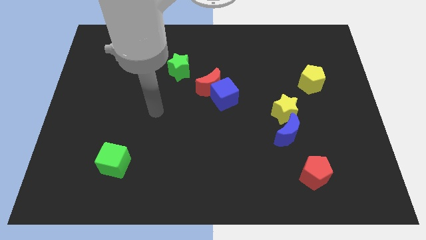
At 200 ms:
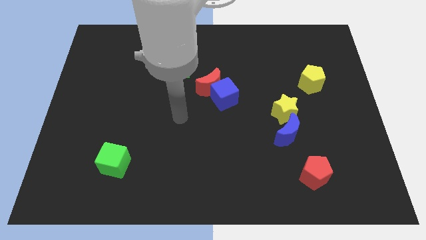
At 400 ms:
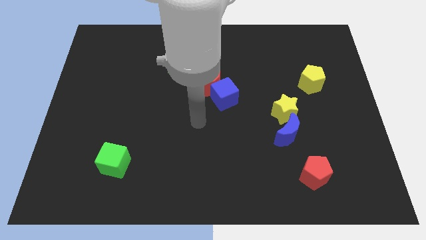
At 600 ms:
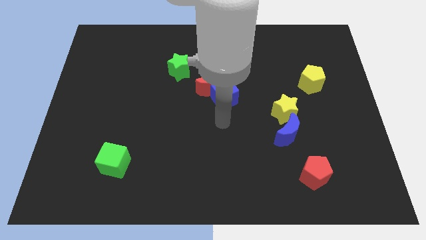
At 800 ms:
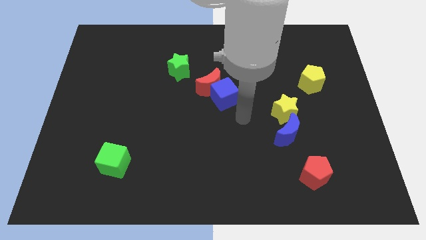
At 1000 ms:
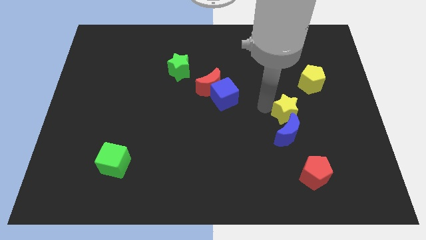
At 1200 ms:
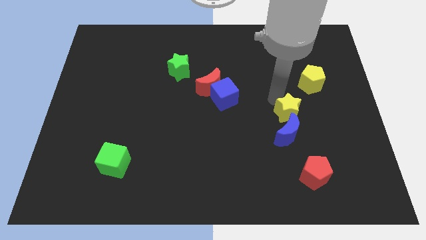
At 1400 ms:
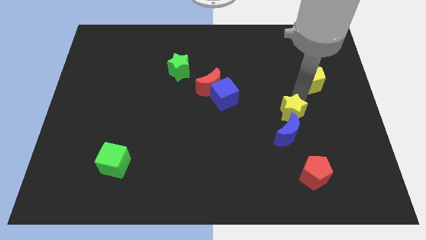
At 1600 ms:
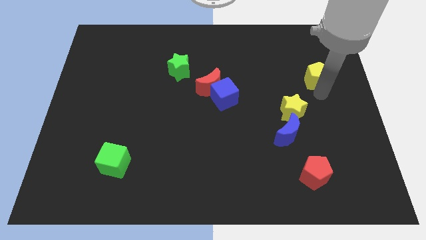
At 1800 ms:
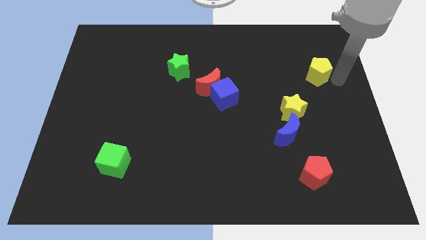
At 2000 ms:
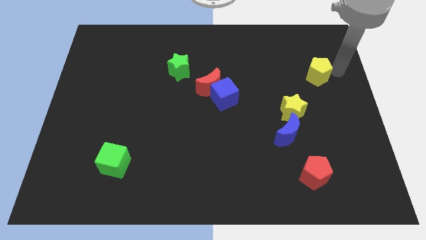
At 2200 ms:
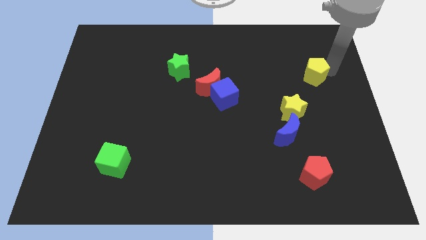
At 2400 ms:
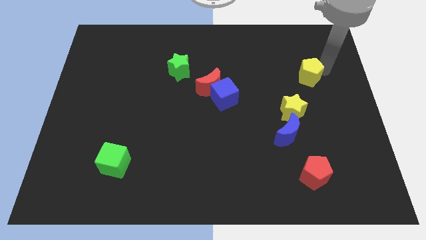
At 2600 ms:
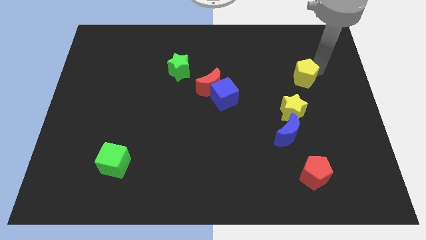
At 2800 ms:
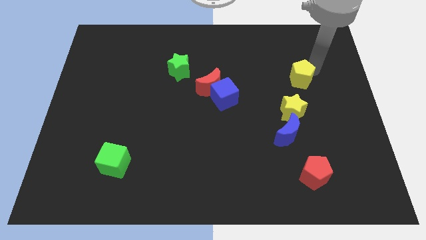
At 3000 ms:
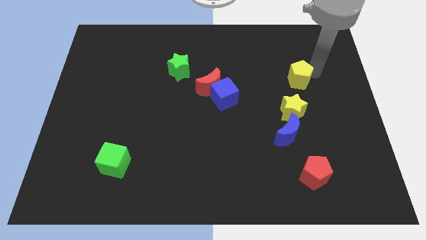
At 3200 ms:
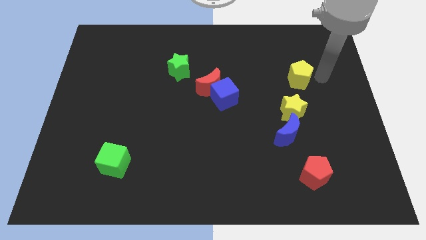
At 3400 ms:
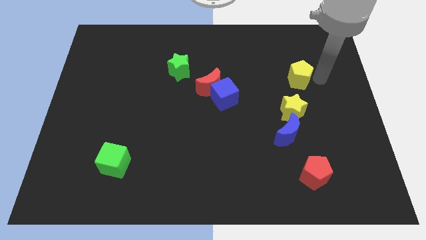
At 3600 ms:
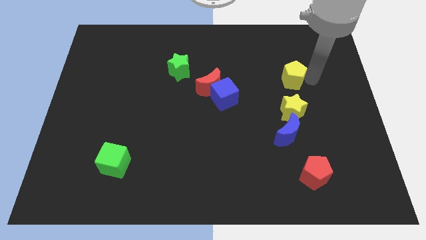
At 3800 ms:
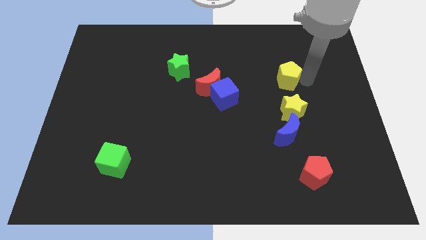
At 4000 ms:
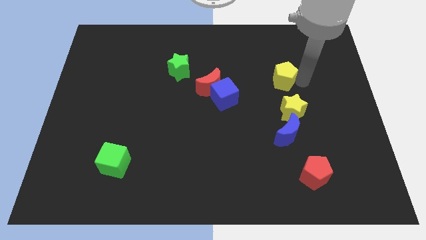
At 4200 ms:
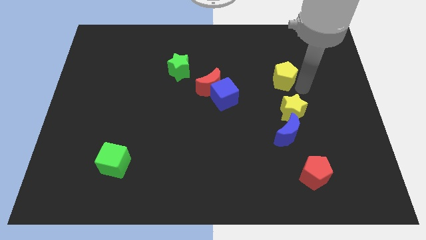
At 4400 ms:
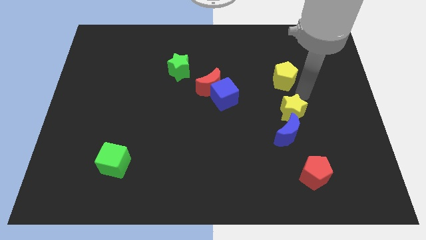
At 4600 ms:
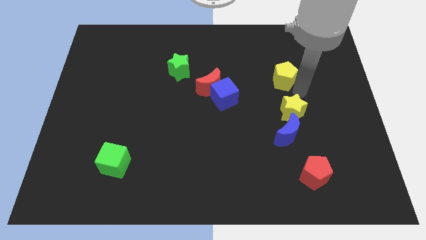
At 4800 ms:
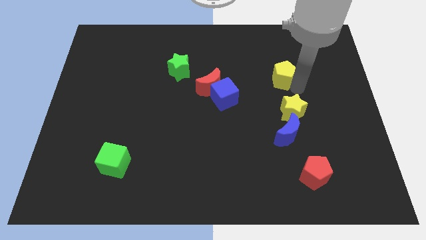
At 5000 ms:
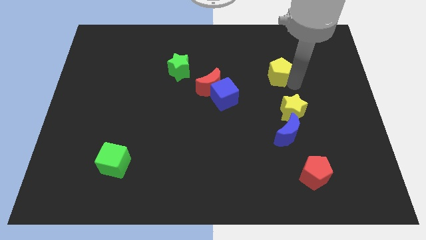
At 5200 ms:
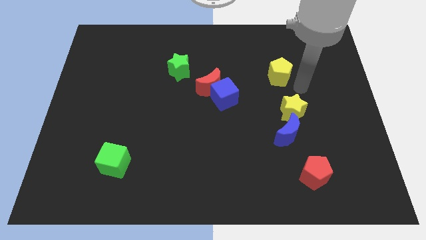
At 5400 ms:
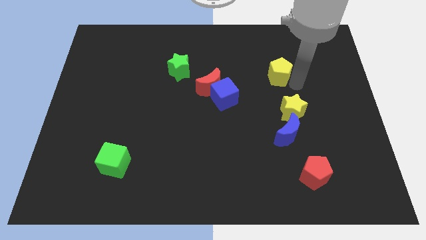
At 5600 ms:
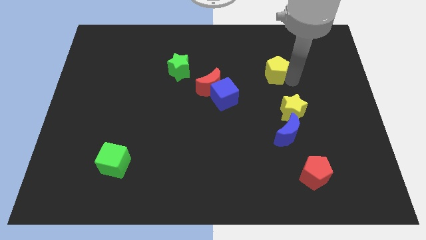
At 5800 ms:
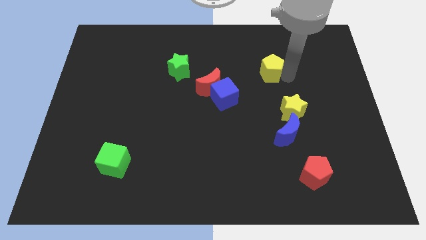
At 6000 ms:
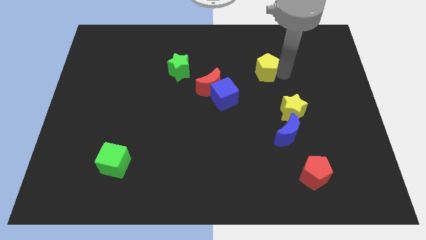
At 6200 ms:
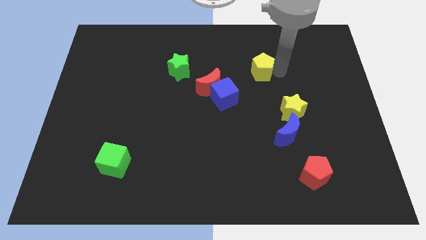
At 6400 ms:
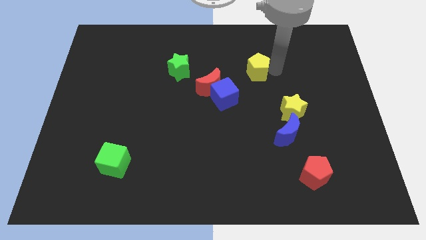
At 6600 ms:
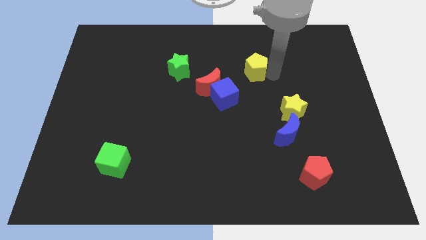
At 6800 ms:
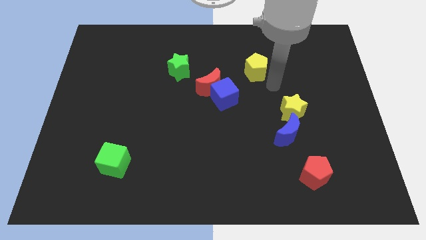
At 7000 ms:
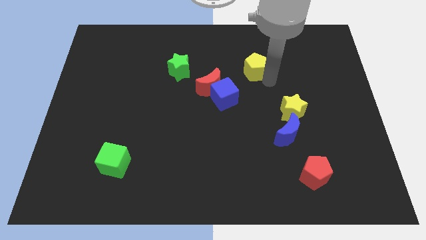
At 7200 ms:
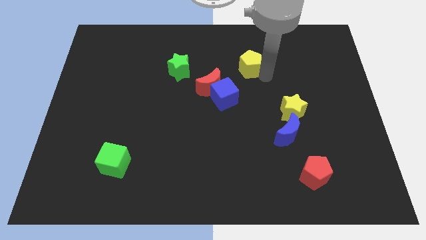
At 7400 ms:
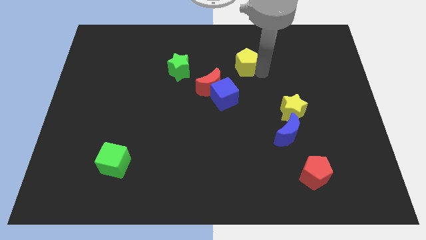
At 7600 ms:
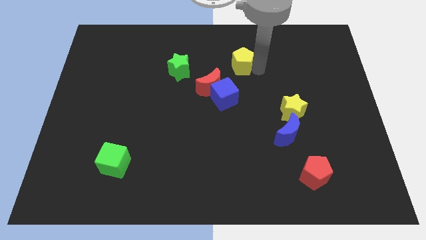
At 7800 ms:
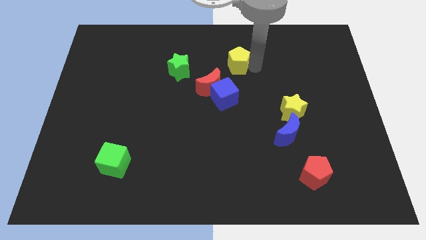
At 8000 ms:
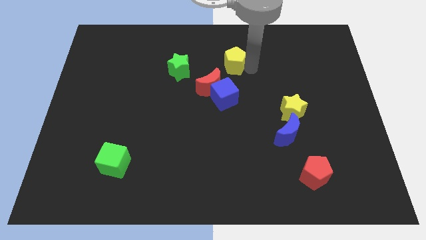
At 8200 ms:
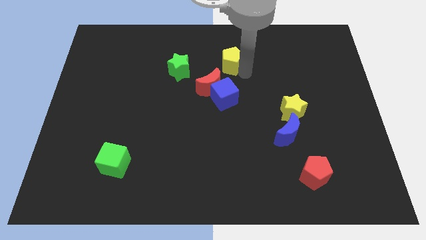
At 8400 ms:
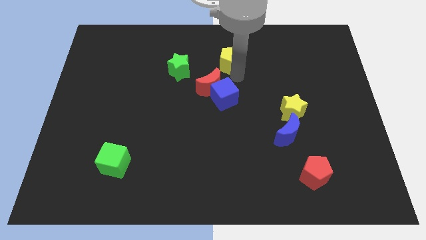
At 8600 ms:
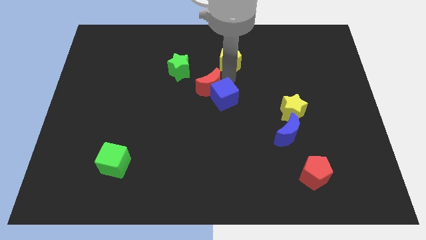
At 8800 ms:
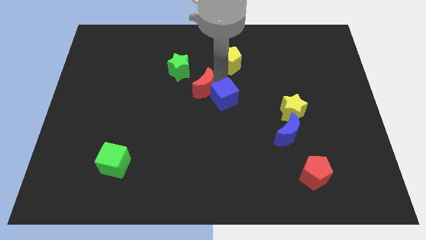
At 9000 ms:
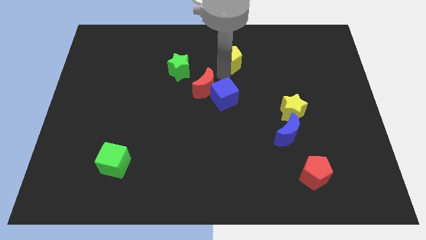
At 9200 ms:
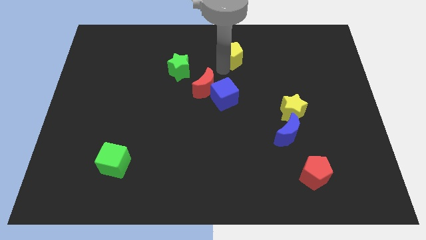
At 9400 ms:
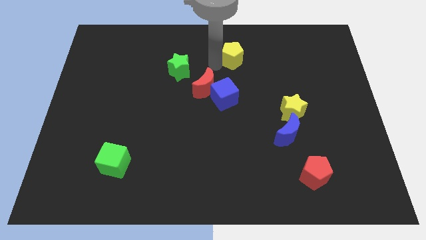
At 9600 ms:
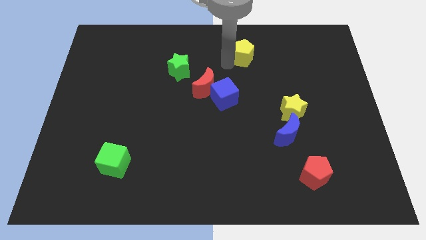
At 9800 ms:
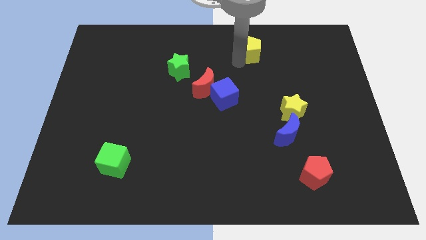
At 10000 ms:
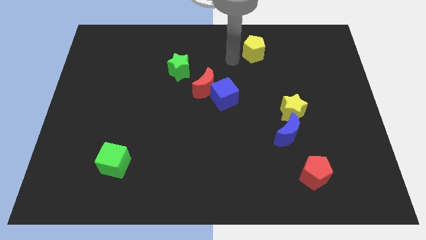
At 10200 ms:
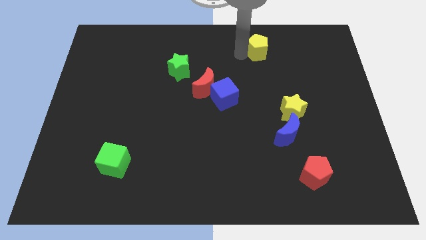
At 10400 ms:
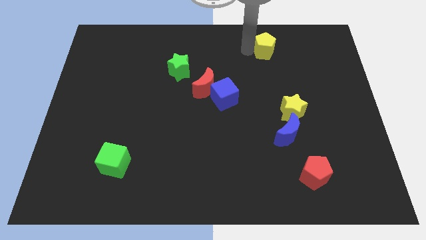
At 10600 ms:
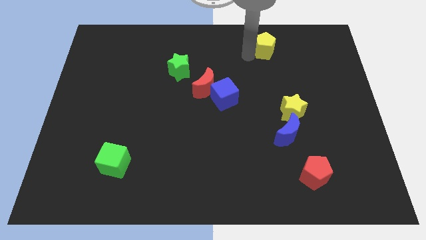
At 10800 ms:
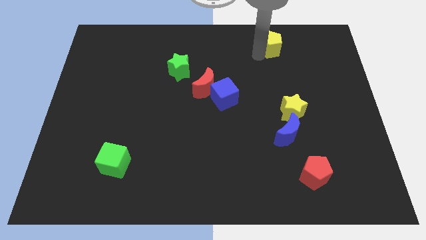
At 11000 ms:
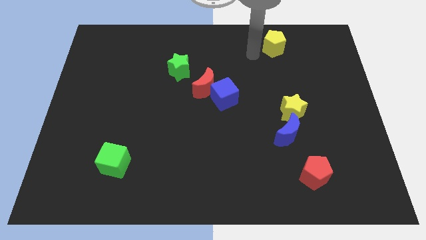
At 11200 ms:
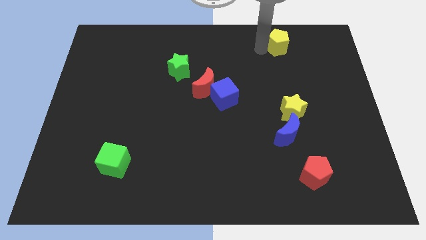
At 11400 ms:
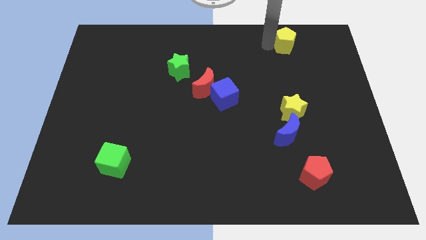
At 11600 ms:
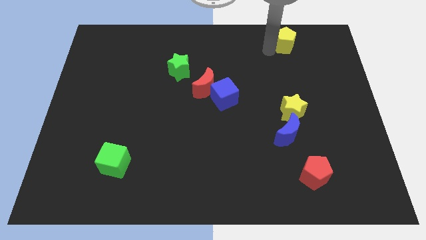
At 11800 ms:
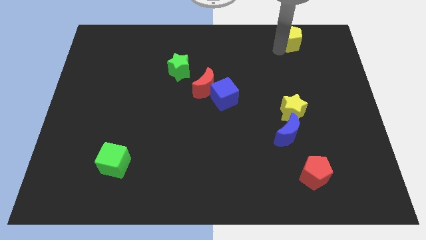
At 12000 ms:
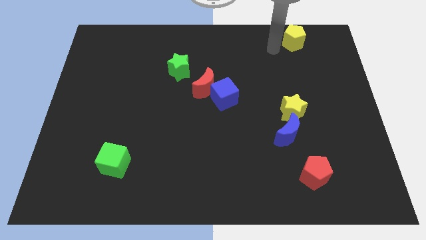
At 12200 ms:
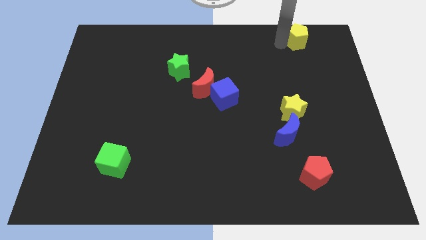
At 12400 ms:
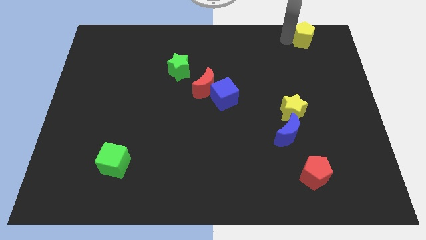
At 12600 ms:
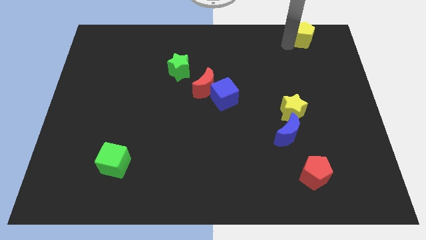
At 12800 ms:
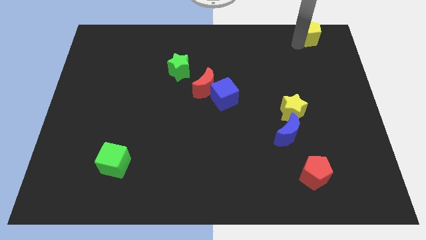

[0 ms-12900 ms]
push the yellow pentagon to the top right corner
